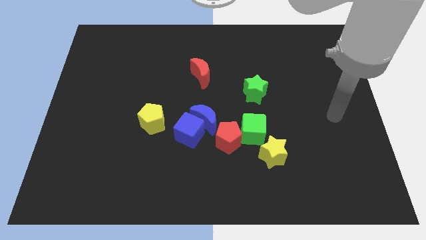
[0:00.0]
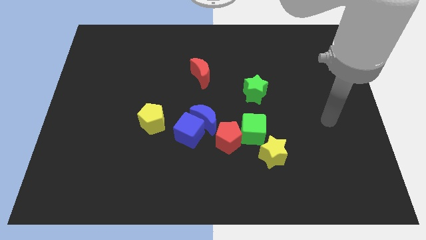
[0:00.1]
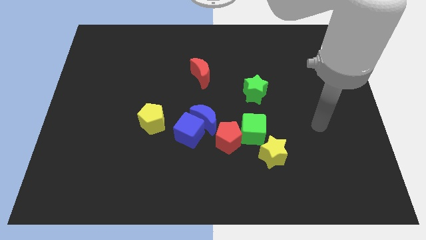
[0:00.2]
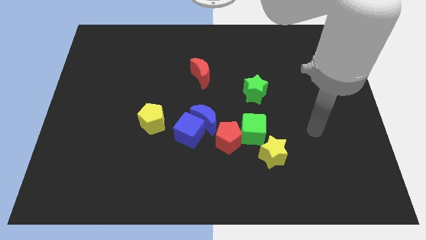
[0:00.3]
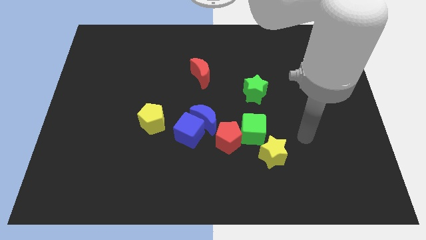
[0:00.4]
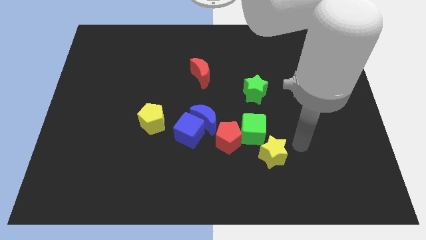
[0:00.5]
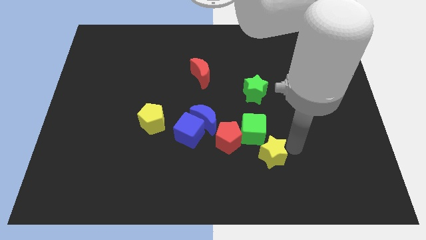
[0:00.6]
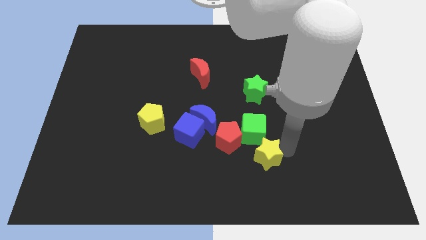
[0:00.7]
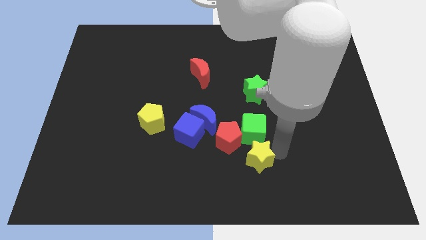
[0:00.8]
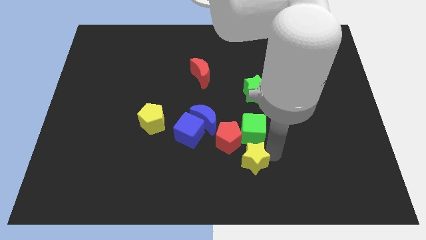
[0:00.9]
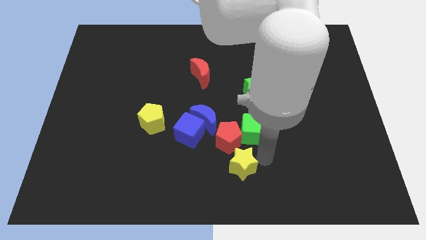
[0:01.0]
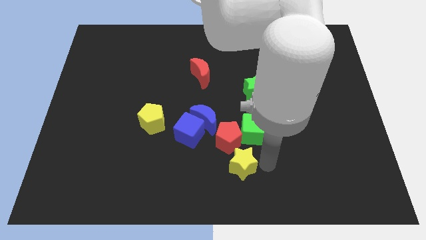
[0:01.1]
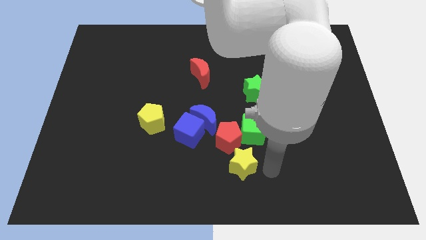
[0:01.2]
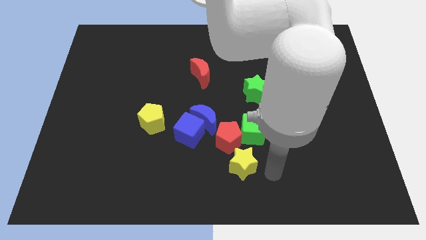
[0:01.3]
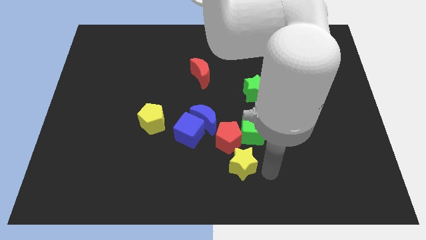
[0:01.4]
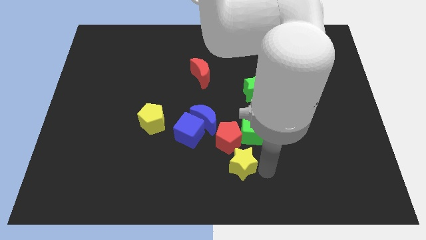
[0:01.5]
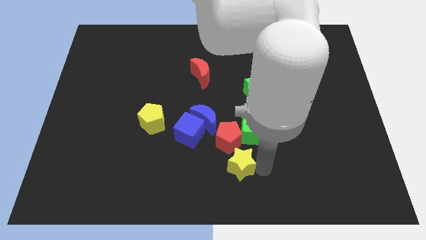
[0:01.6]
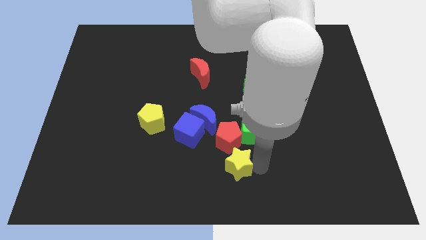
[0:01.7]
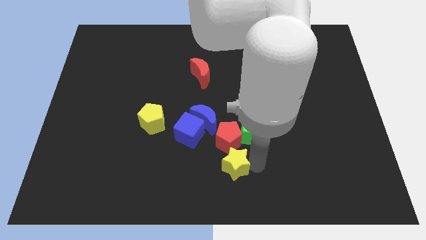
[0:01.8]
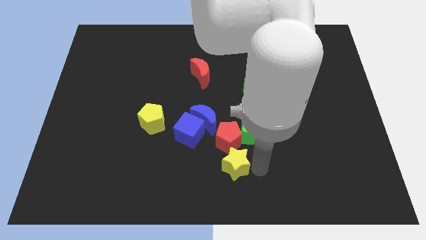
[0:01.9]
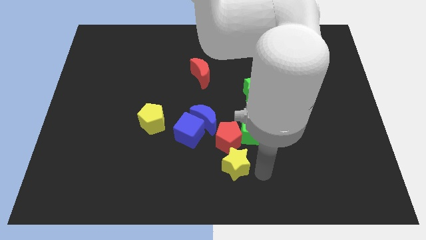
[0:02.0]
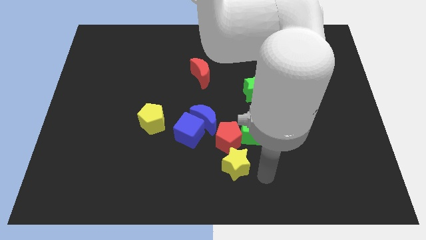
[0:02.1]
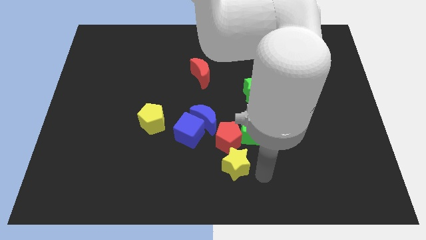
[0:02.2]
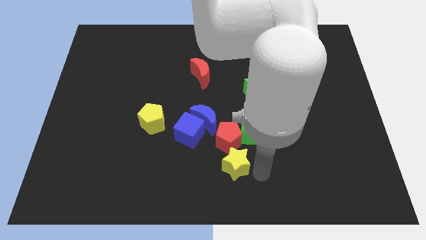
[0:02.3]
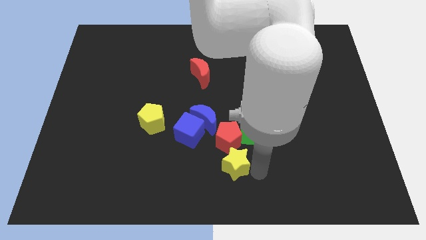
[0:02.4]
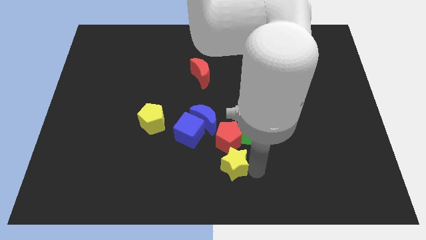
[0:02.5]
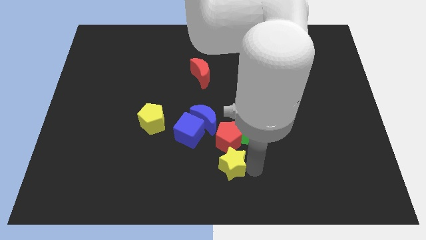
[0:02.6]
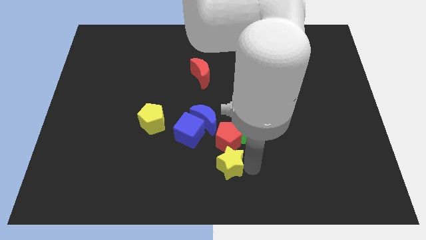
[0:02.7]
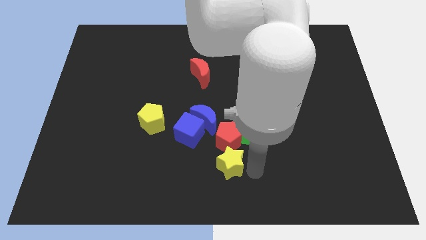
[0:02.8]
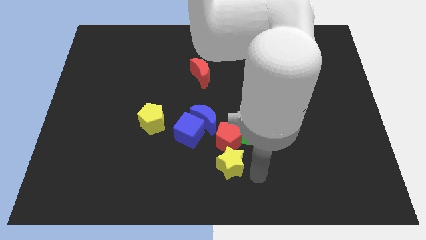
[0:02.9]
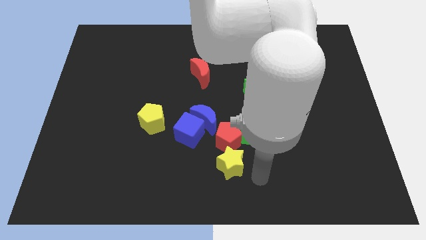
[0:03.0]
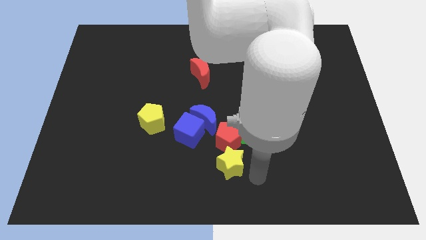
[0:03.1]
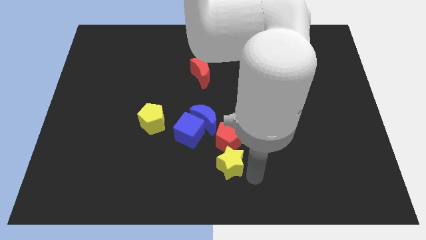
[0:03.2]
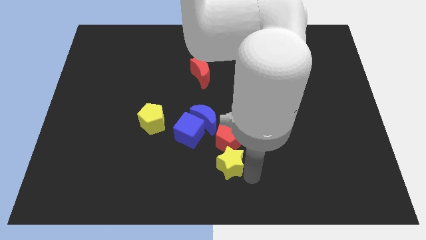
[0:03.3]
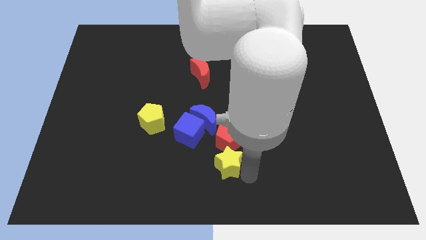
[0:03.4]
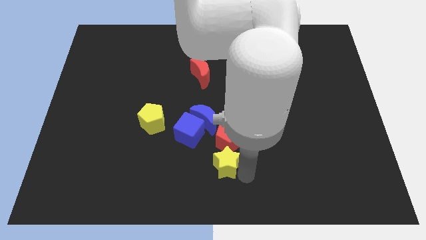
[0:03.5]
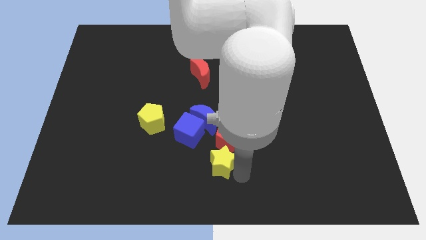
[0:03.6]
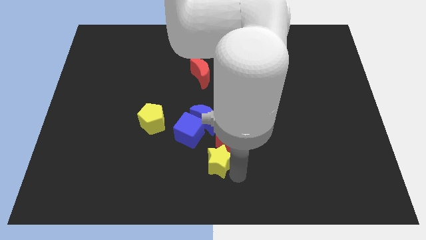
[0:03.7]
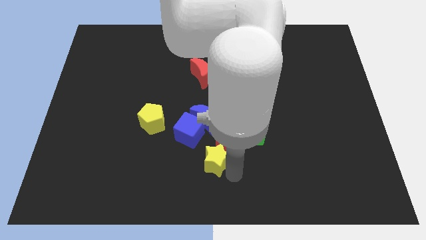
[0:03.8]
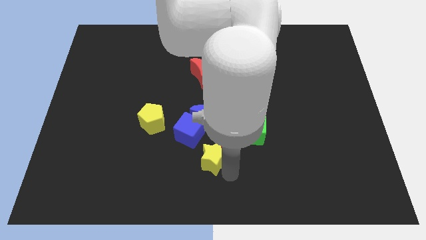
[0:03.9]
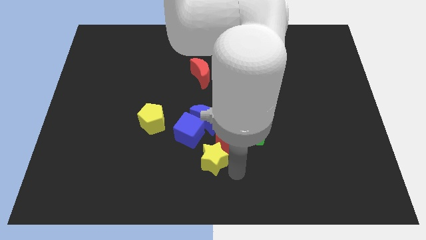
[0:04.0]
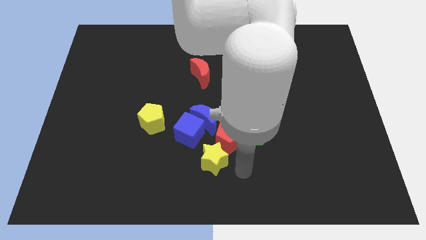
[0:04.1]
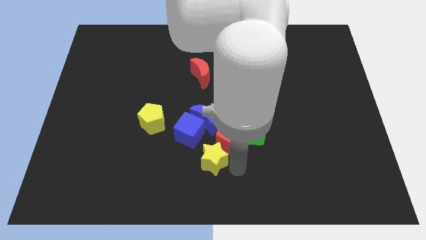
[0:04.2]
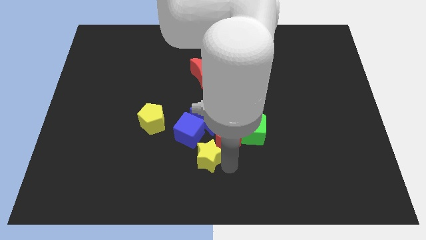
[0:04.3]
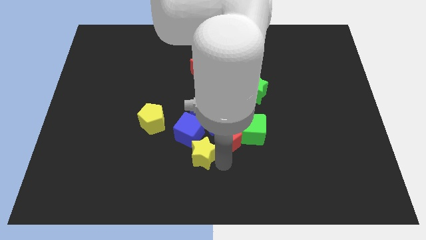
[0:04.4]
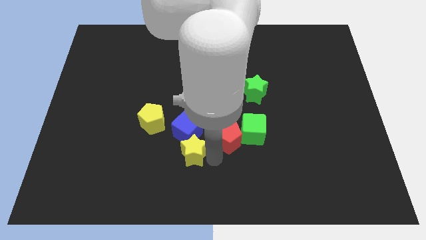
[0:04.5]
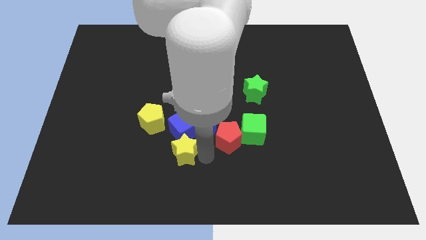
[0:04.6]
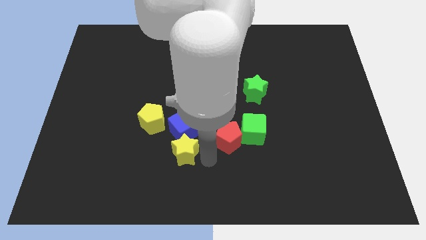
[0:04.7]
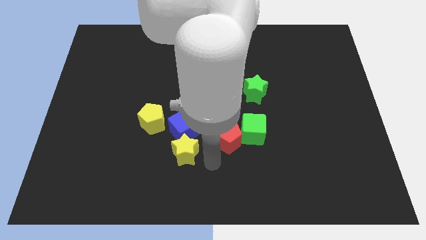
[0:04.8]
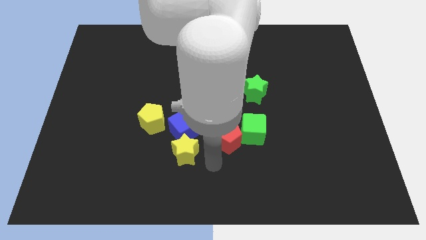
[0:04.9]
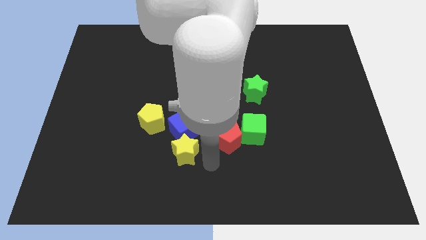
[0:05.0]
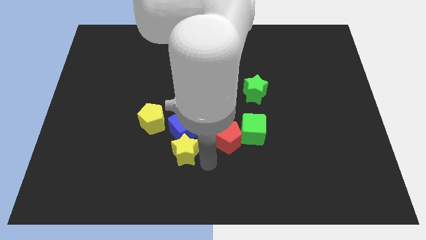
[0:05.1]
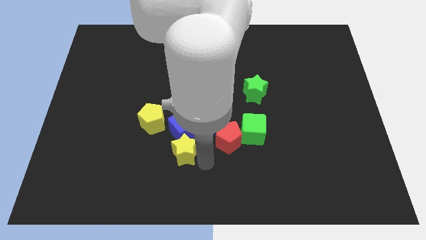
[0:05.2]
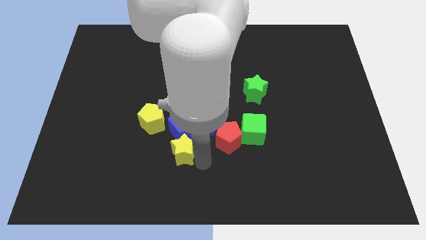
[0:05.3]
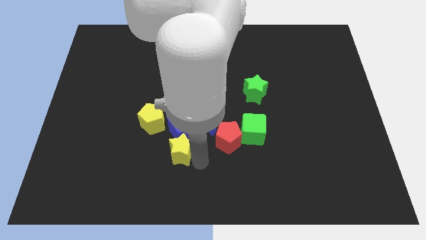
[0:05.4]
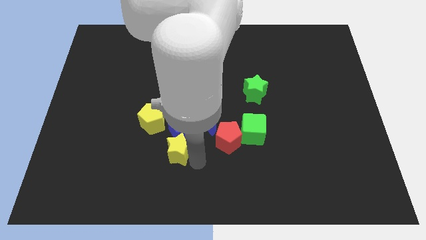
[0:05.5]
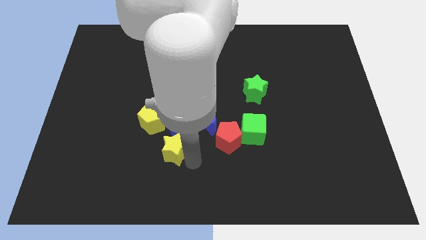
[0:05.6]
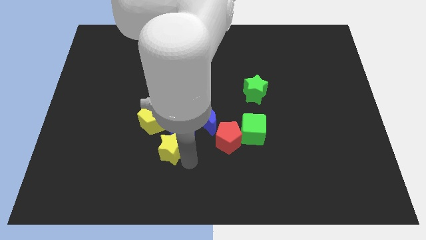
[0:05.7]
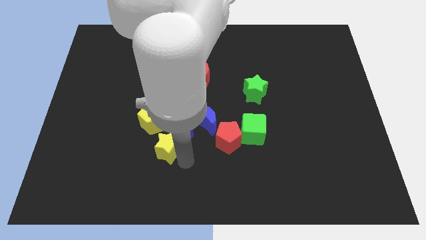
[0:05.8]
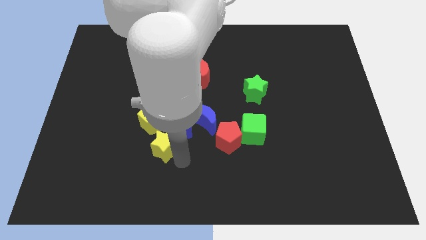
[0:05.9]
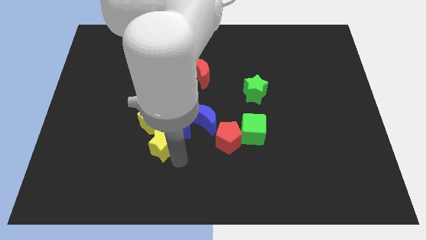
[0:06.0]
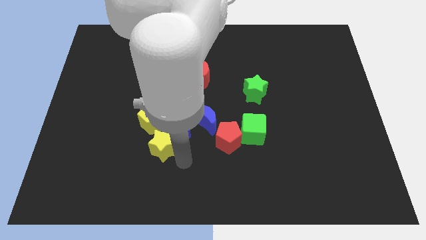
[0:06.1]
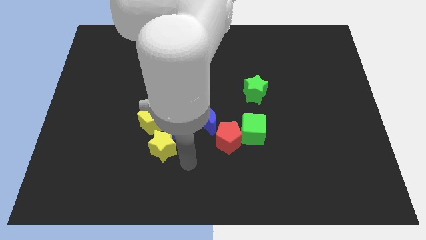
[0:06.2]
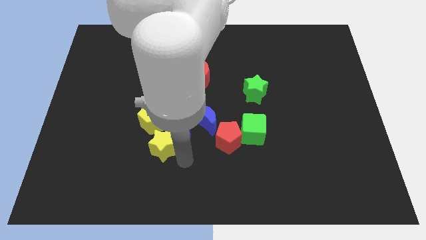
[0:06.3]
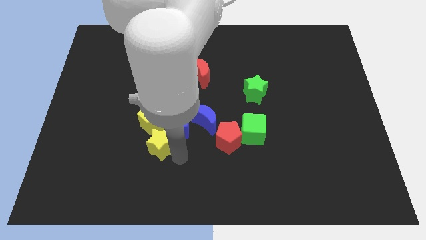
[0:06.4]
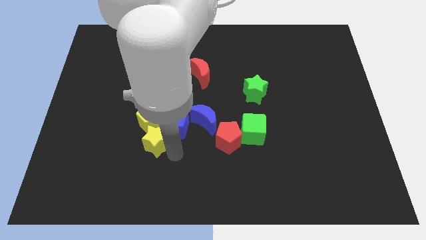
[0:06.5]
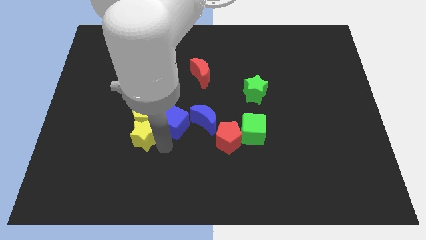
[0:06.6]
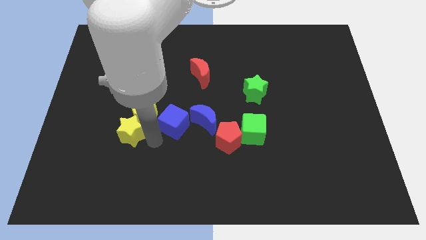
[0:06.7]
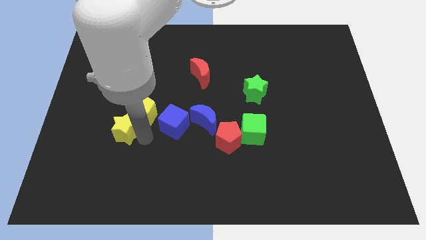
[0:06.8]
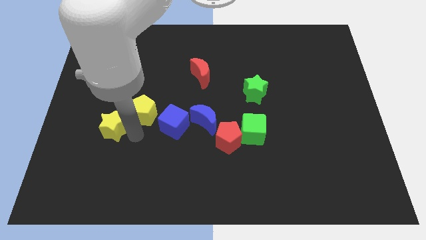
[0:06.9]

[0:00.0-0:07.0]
move the yellow star to the left side of the yellow pentagon
